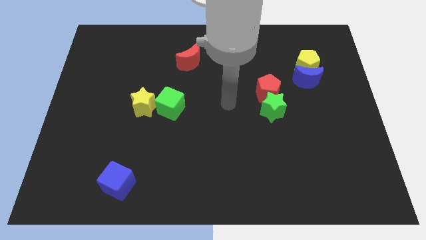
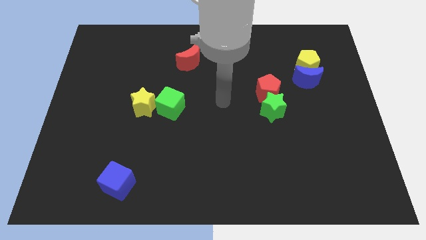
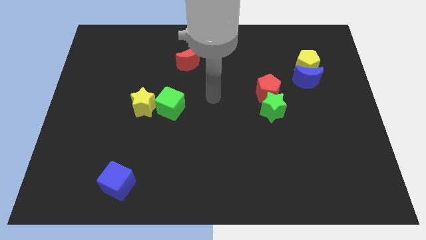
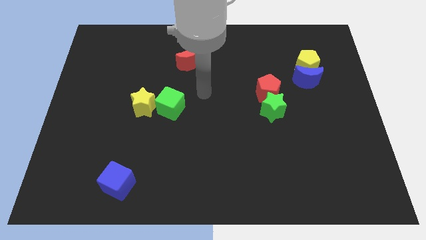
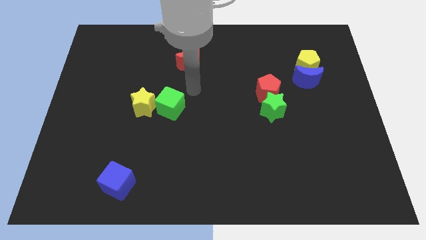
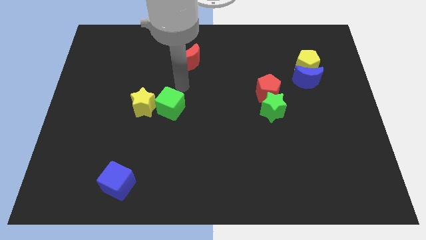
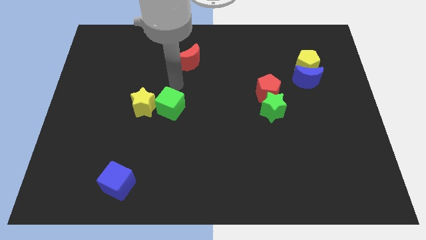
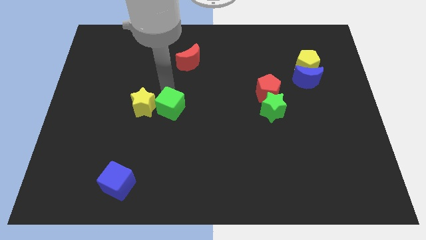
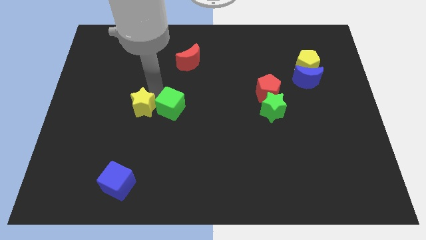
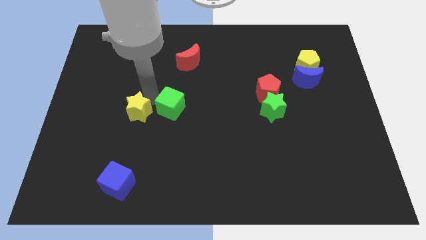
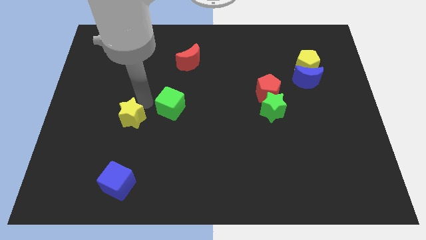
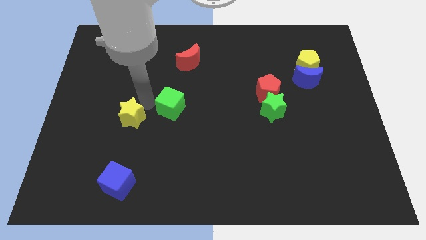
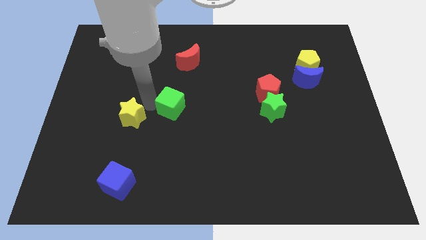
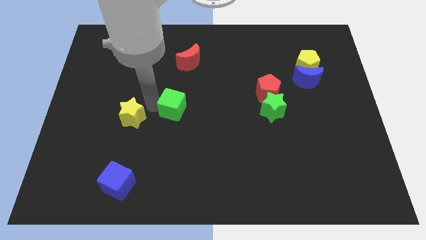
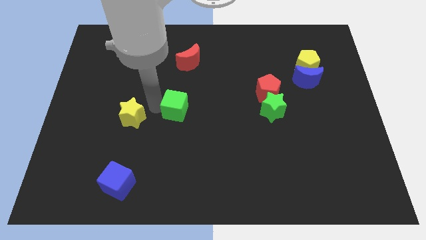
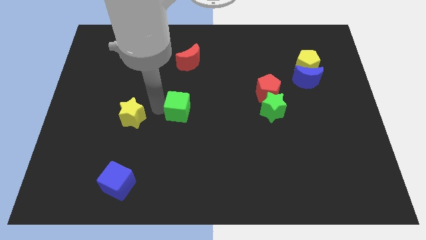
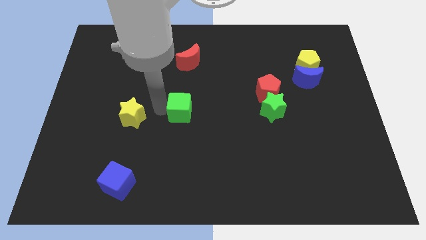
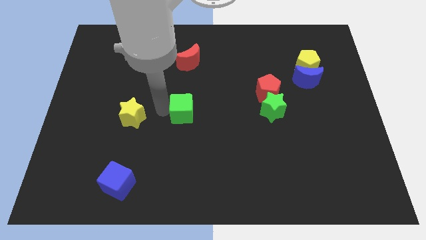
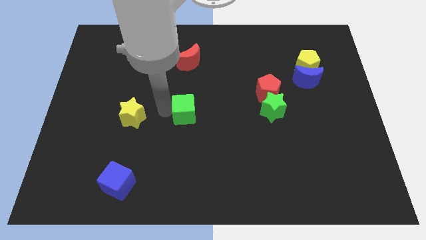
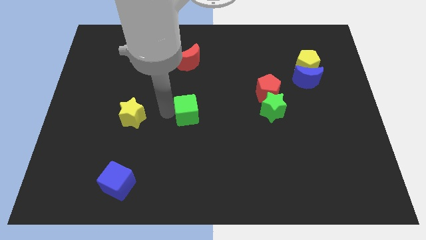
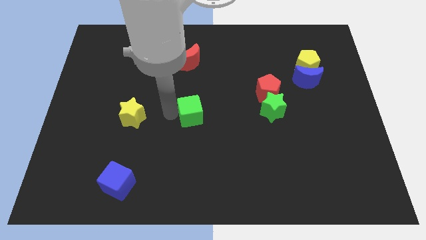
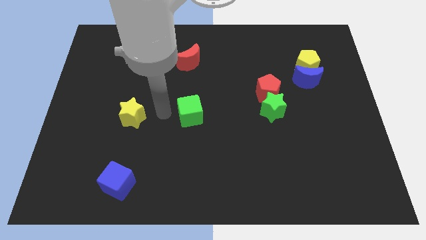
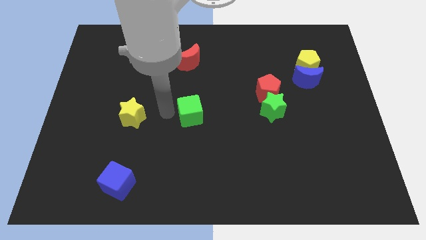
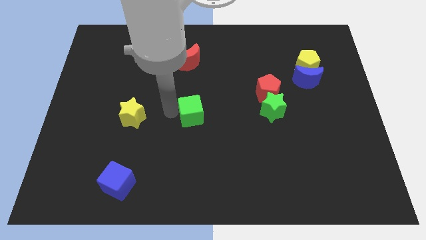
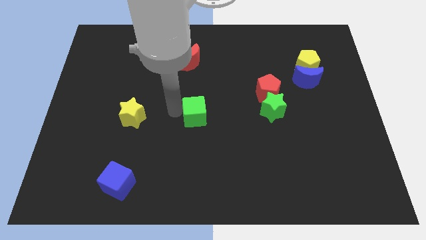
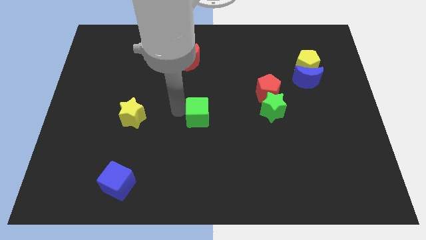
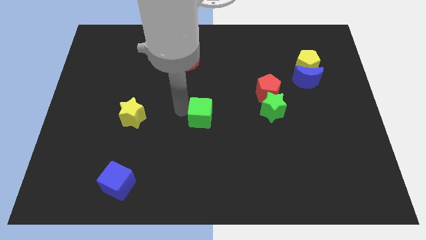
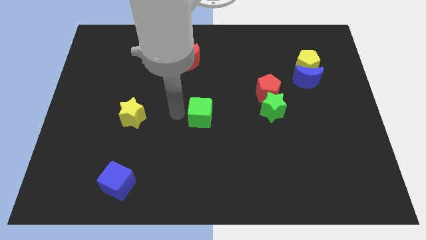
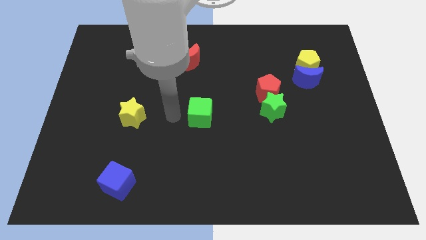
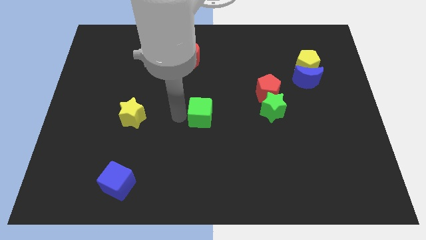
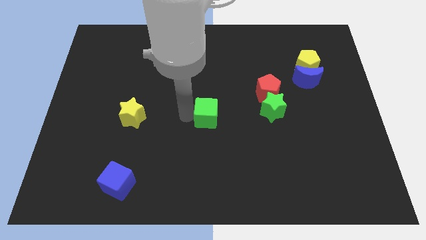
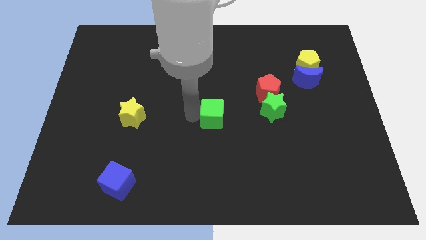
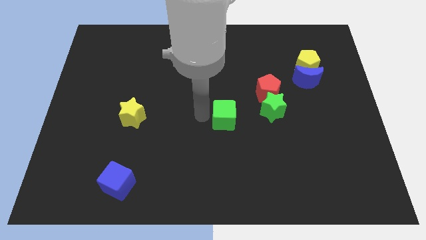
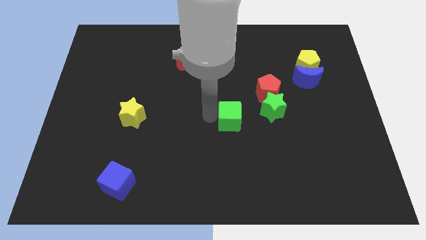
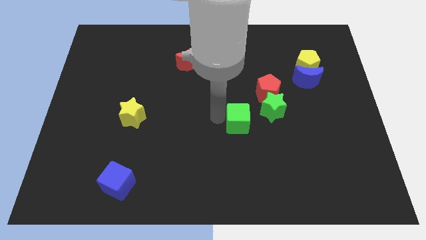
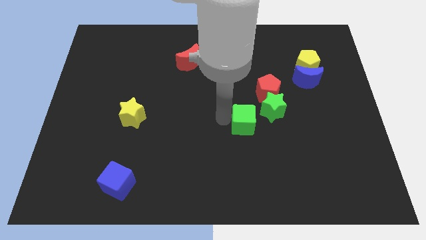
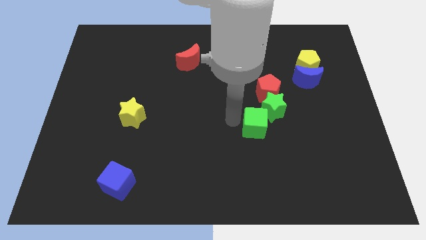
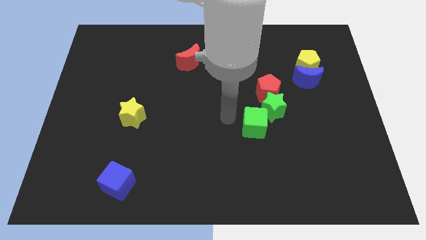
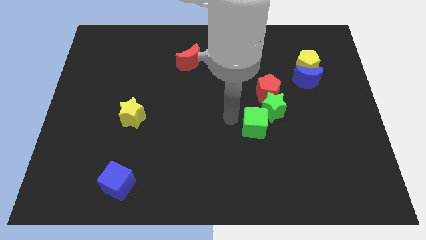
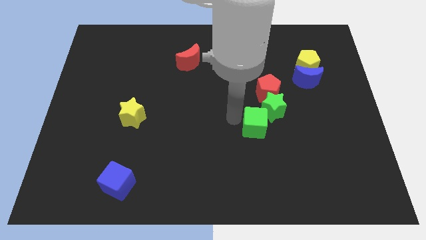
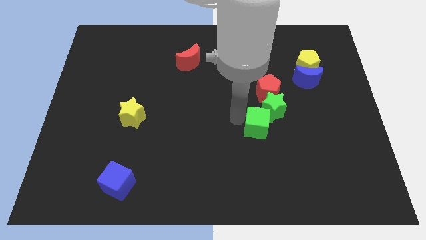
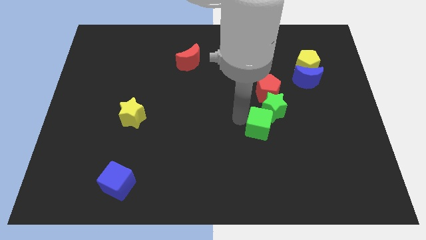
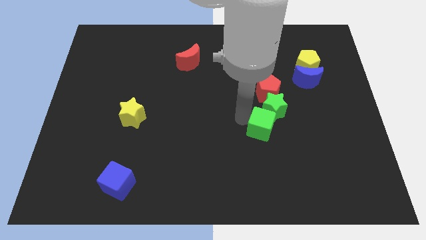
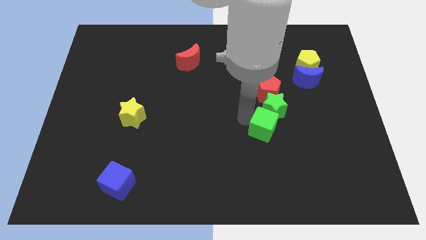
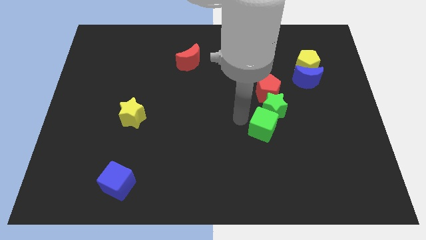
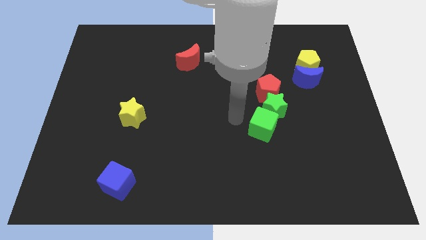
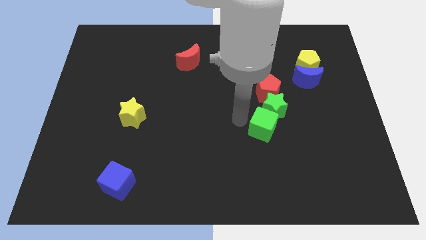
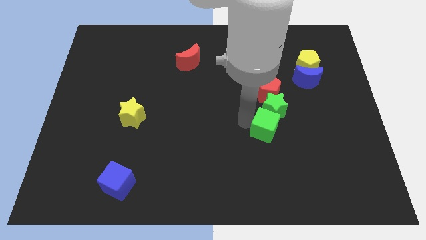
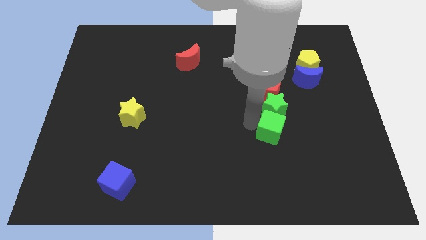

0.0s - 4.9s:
slide the green cube to the bottom right of the green star

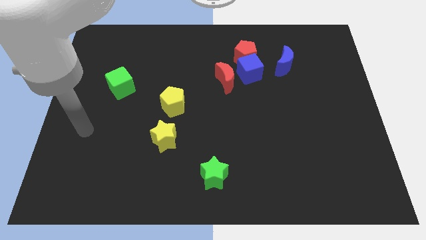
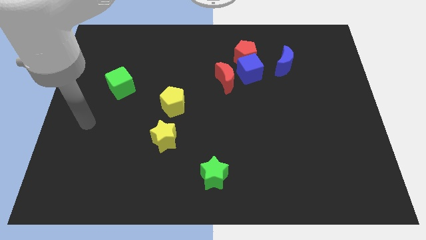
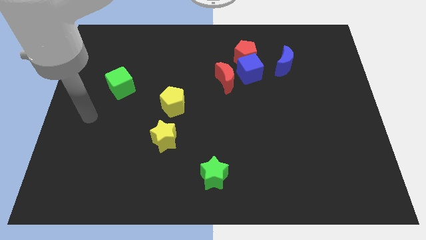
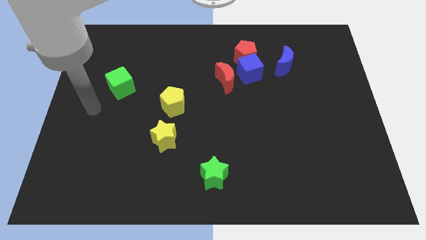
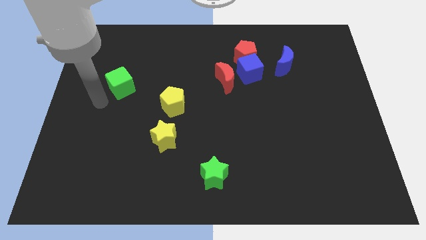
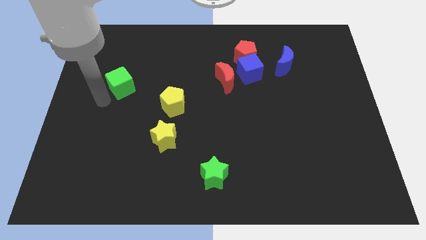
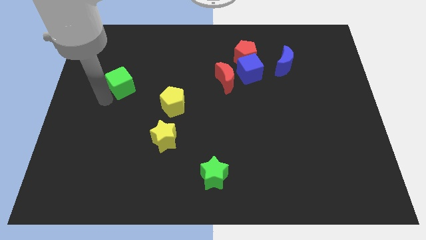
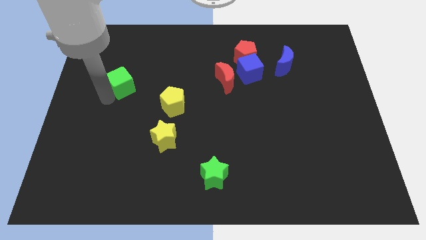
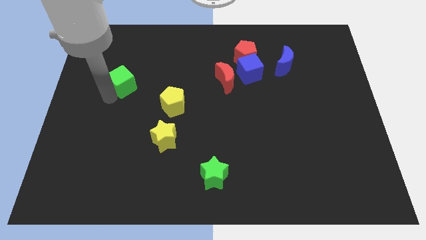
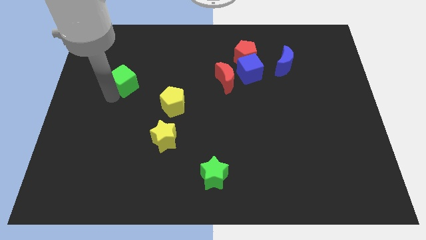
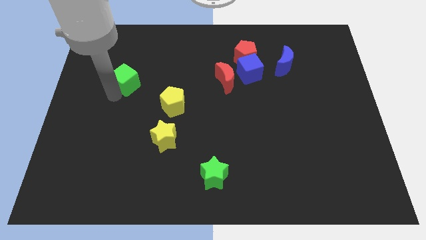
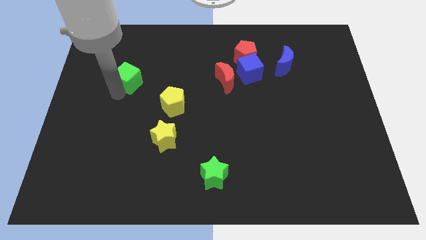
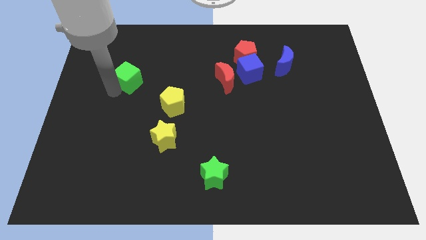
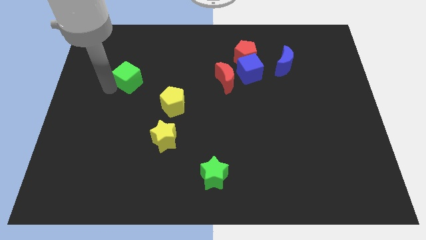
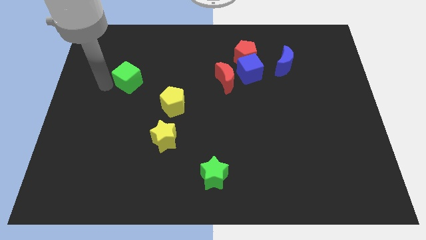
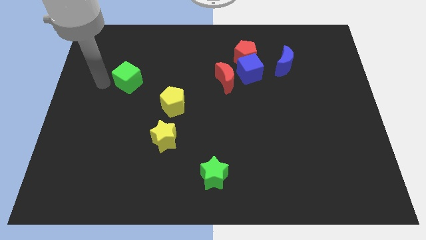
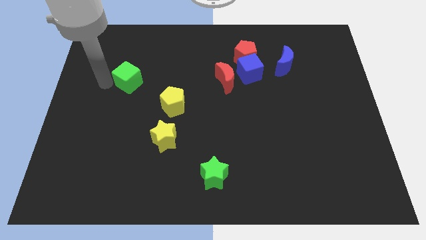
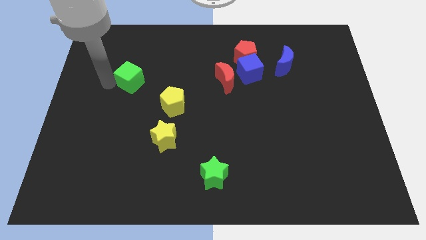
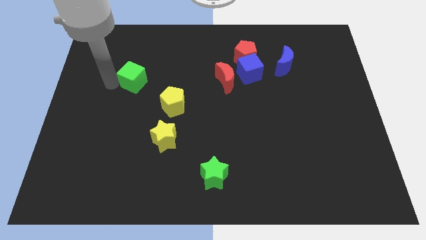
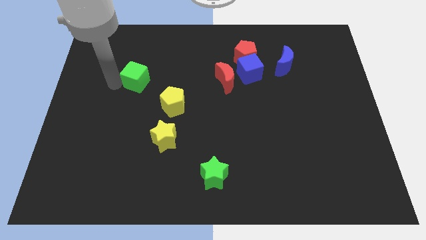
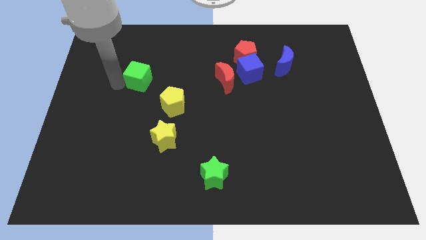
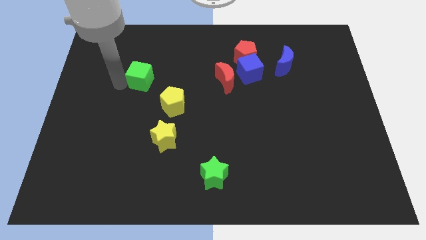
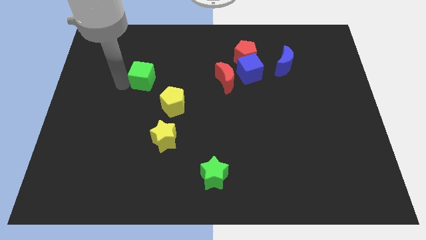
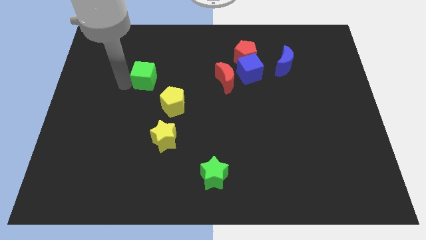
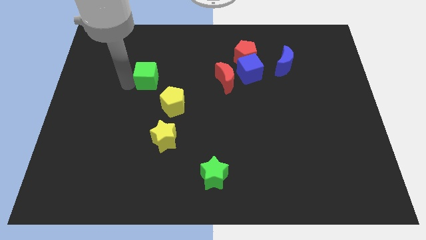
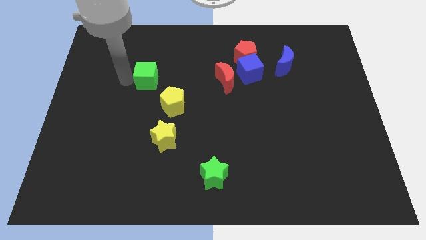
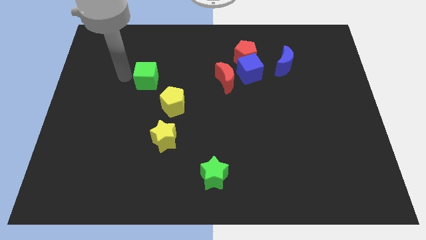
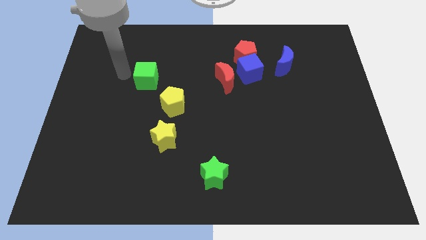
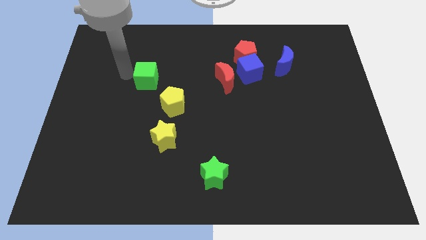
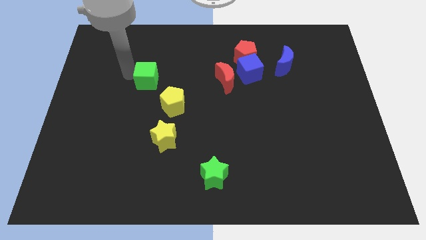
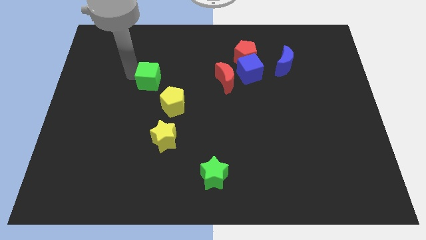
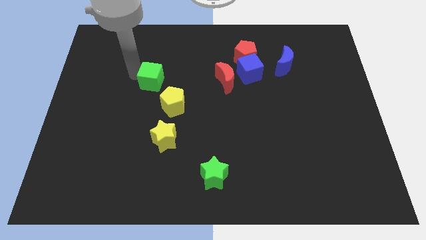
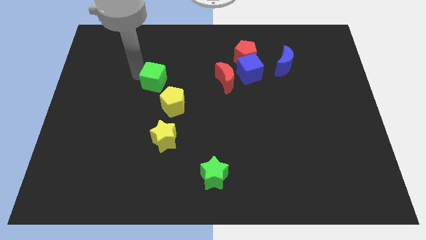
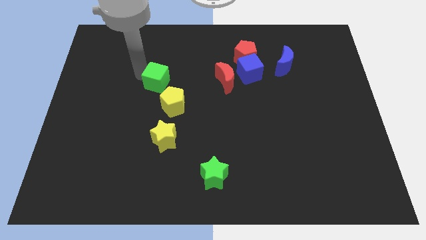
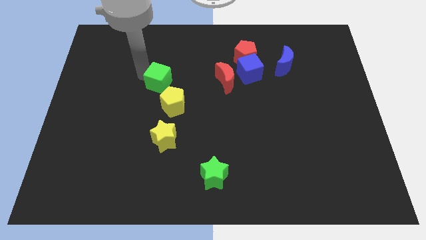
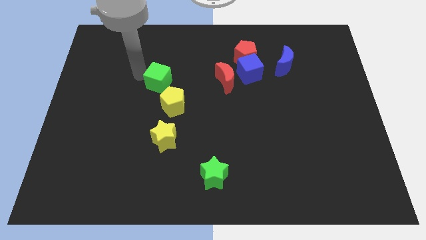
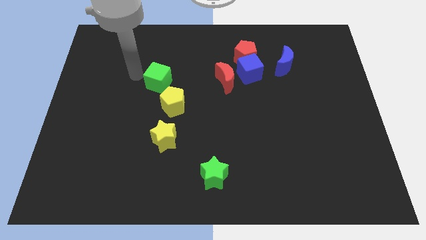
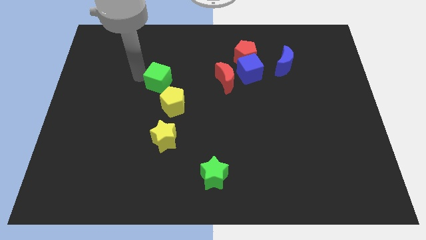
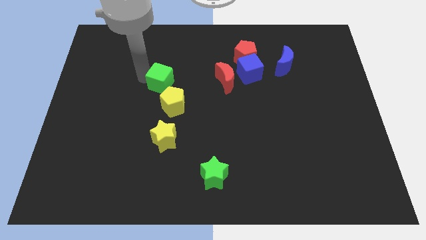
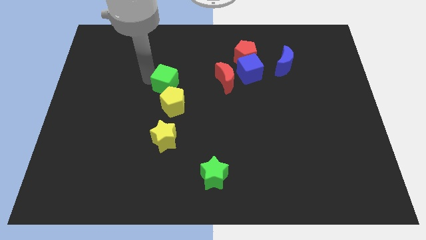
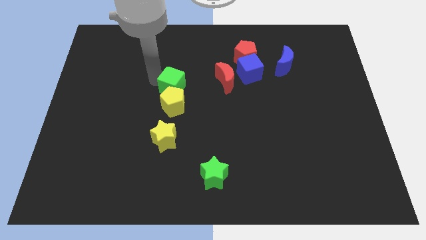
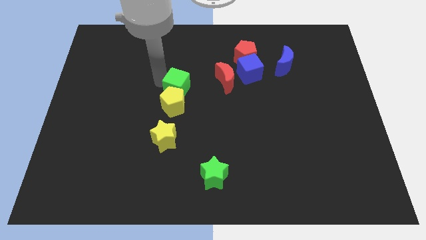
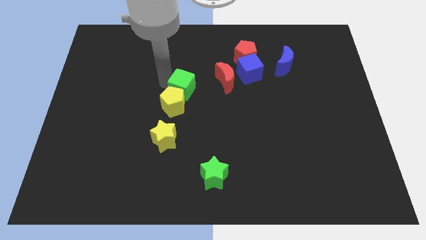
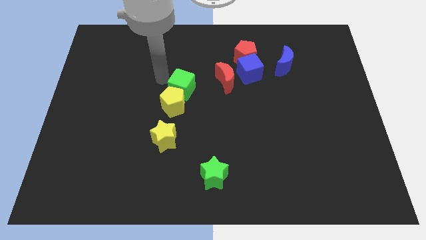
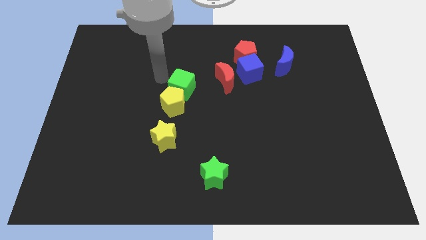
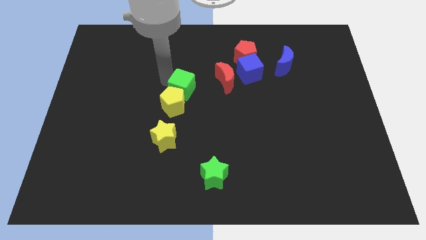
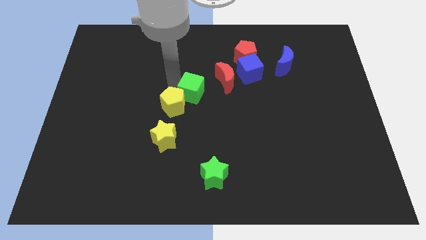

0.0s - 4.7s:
slide the green cube right of the yellow pentagon
